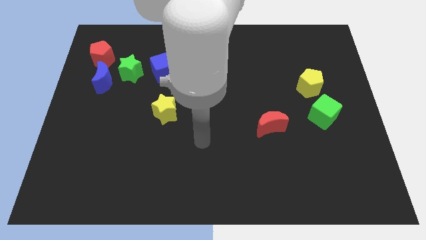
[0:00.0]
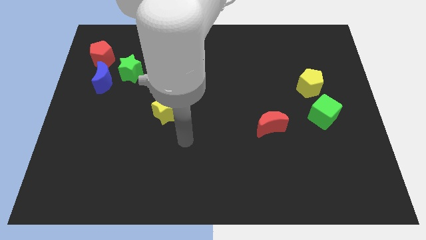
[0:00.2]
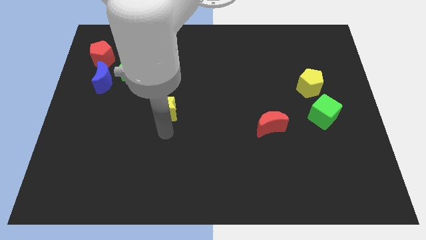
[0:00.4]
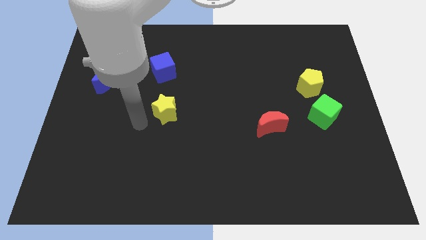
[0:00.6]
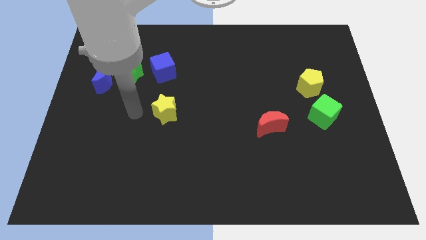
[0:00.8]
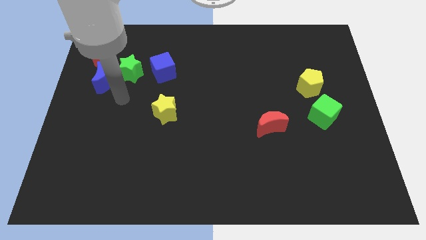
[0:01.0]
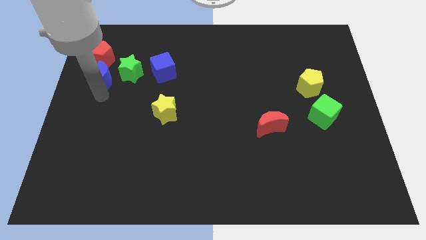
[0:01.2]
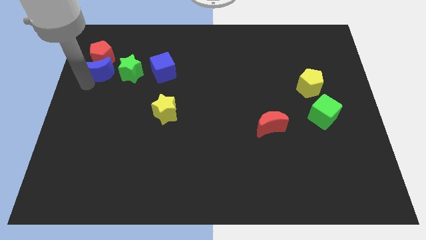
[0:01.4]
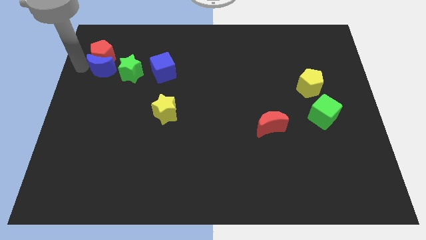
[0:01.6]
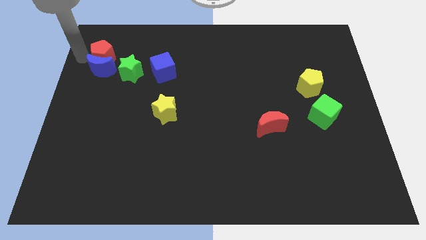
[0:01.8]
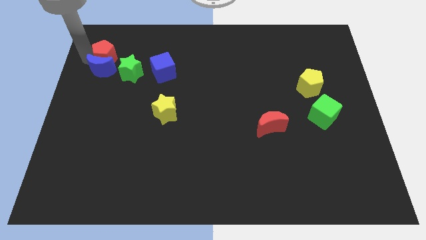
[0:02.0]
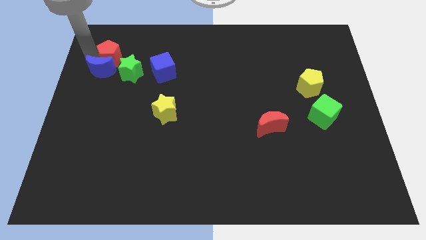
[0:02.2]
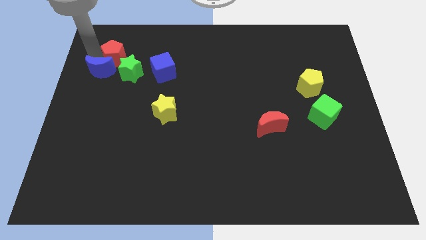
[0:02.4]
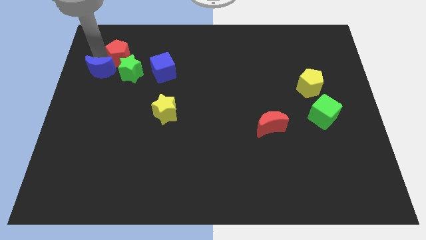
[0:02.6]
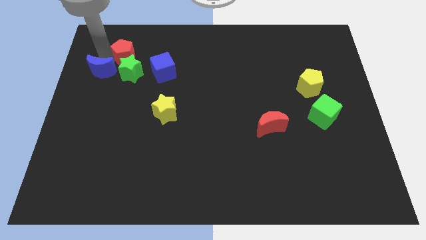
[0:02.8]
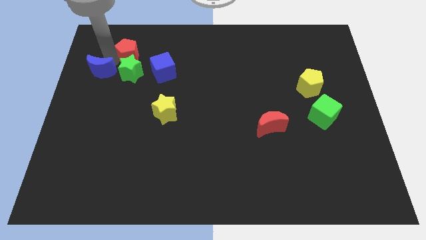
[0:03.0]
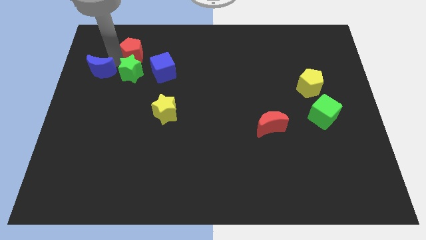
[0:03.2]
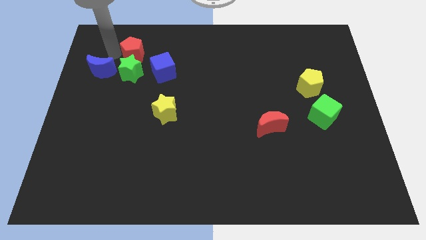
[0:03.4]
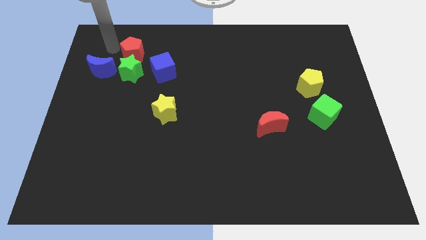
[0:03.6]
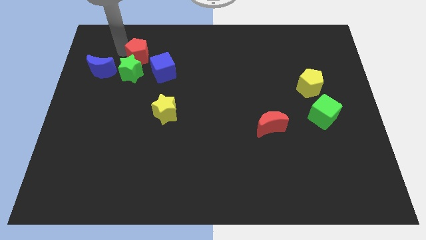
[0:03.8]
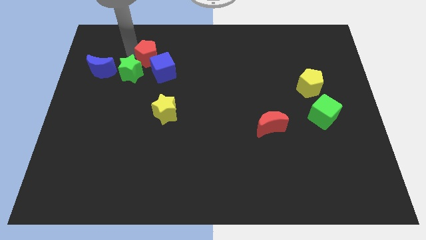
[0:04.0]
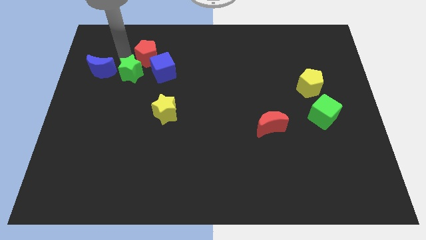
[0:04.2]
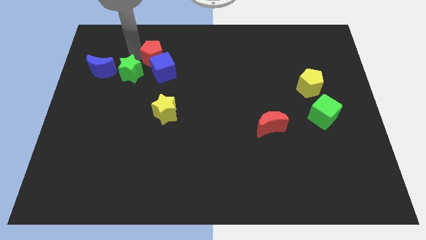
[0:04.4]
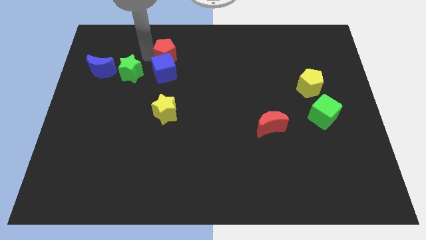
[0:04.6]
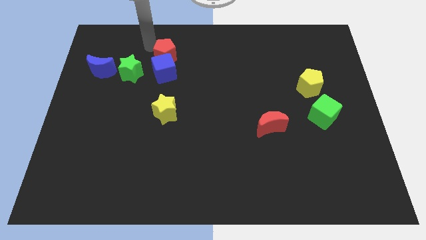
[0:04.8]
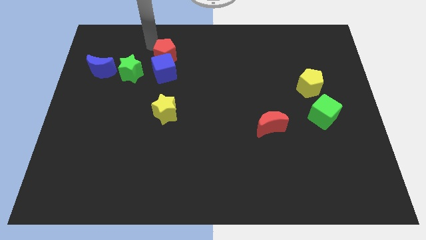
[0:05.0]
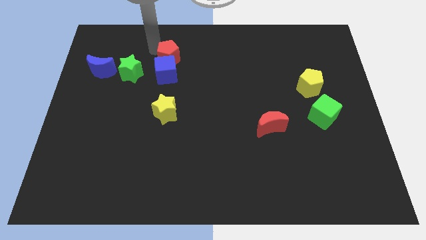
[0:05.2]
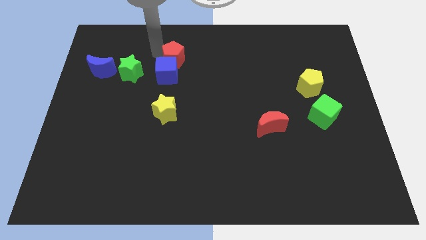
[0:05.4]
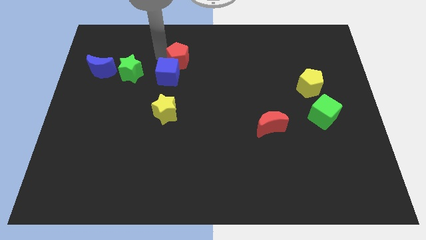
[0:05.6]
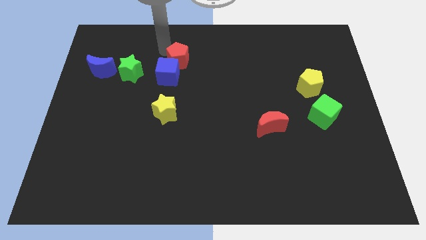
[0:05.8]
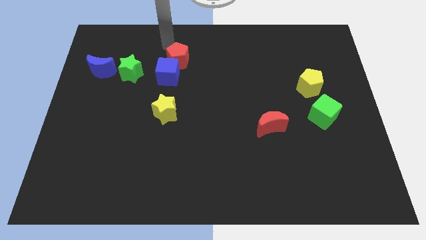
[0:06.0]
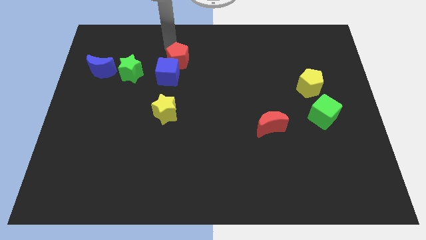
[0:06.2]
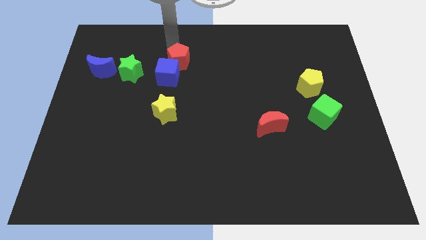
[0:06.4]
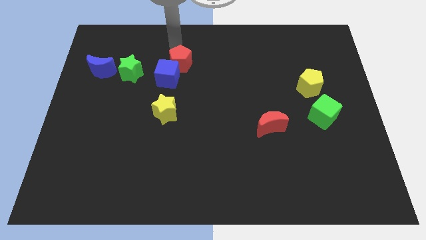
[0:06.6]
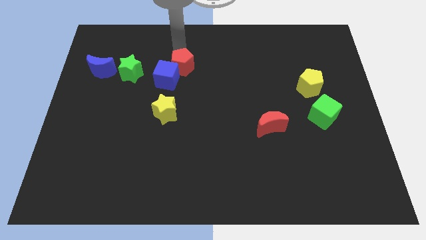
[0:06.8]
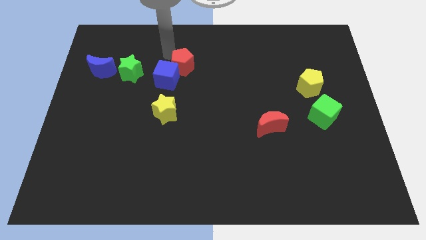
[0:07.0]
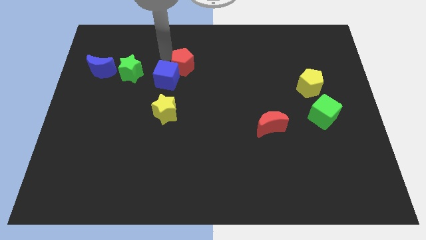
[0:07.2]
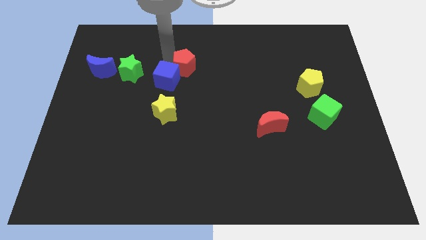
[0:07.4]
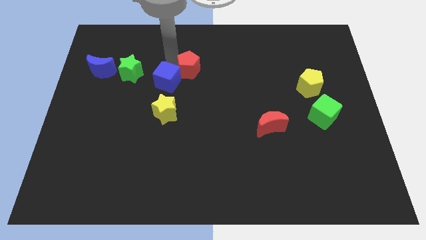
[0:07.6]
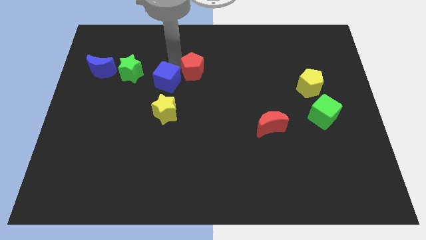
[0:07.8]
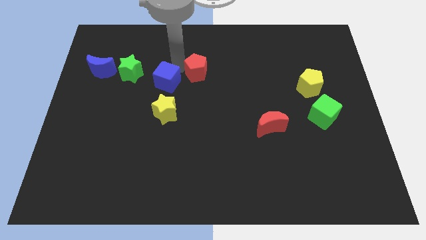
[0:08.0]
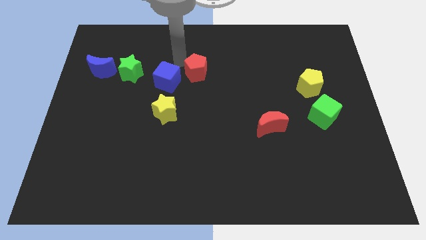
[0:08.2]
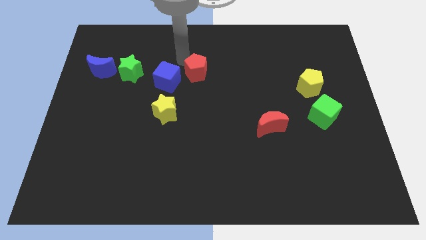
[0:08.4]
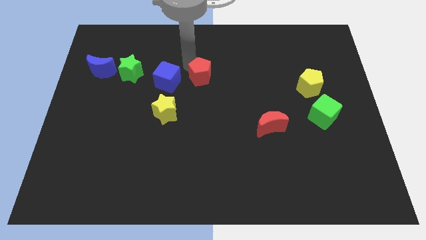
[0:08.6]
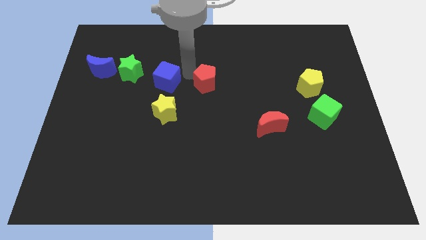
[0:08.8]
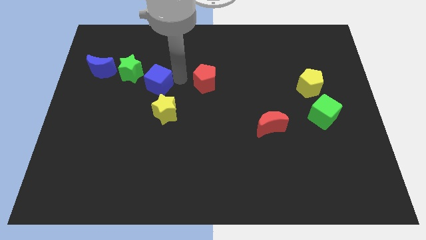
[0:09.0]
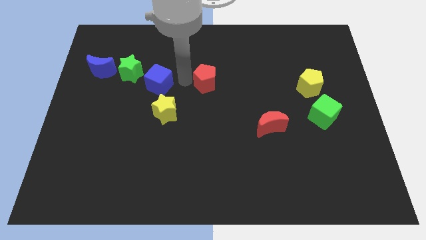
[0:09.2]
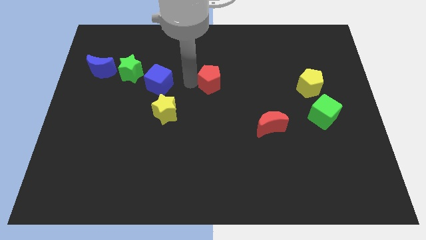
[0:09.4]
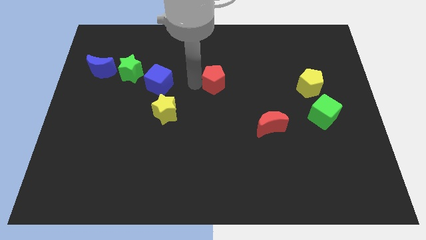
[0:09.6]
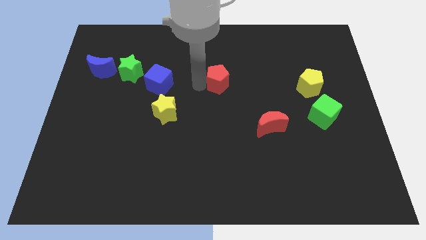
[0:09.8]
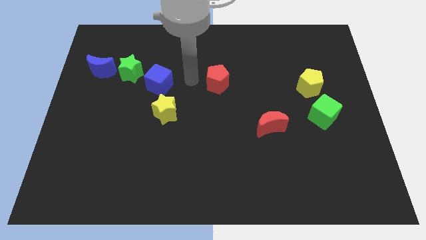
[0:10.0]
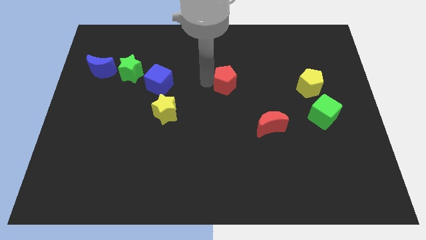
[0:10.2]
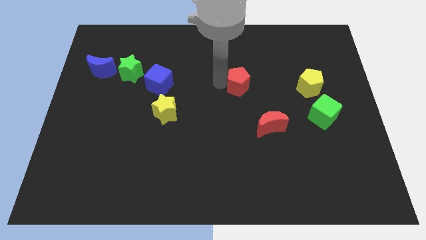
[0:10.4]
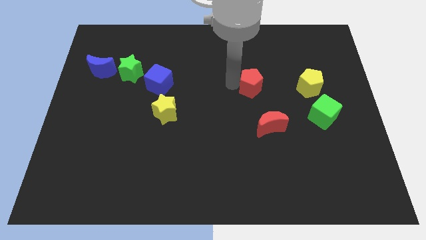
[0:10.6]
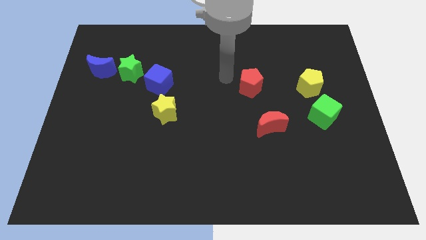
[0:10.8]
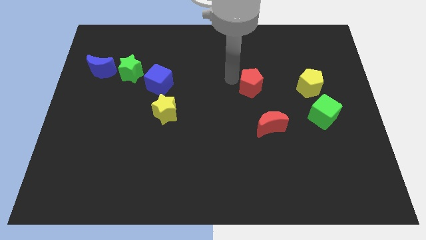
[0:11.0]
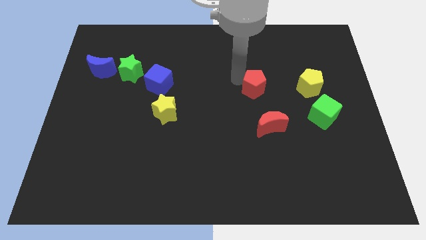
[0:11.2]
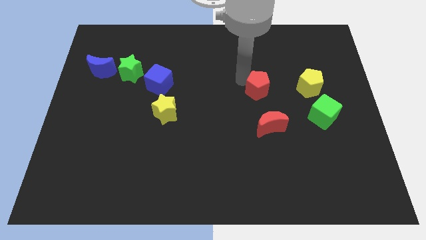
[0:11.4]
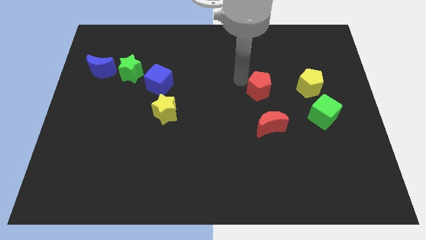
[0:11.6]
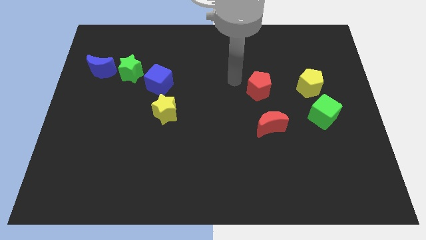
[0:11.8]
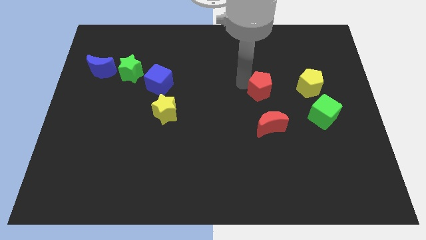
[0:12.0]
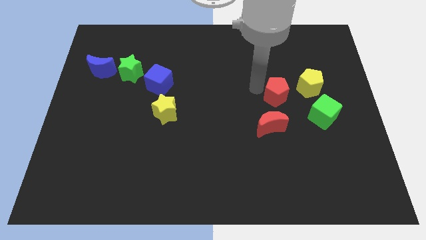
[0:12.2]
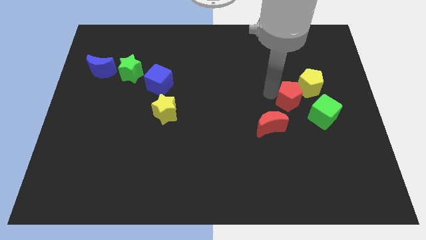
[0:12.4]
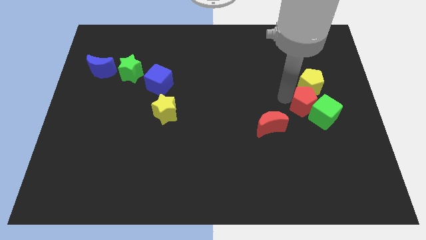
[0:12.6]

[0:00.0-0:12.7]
put the red pentagon towards the green cube

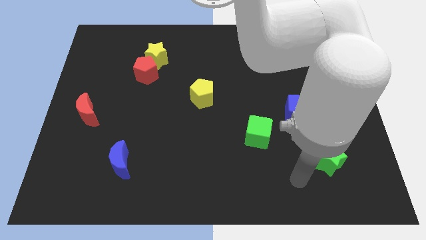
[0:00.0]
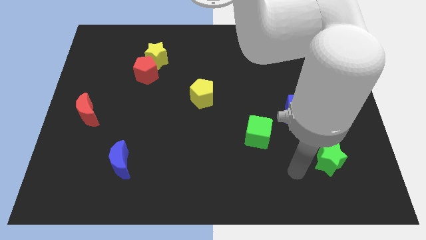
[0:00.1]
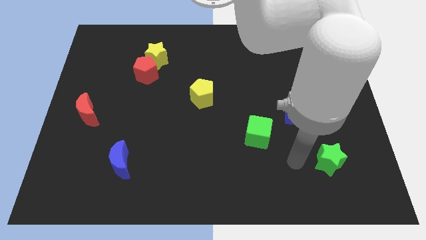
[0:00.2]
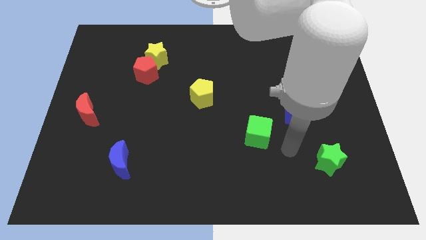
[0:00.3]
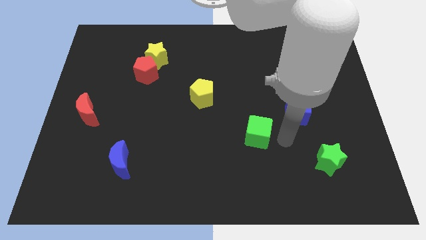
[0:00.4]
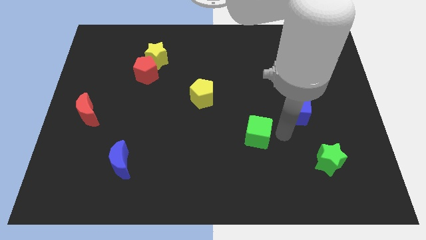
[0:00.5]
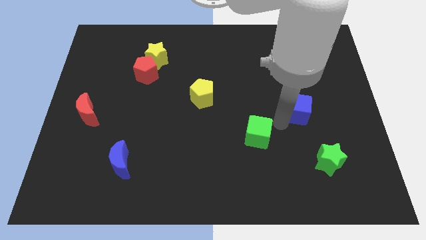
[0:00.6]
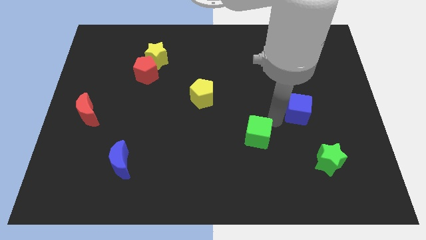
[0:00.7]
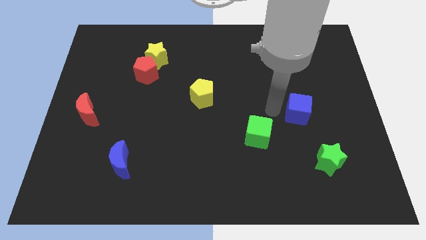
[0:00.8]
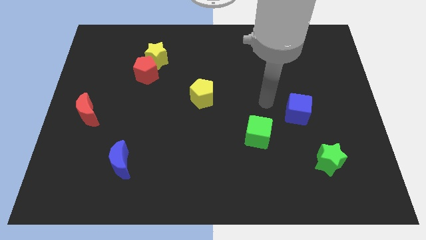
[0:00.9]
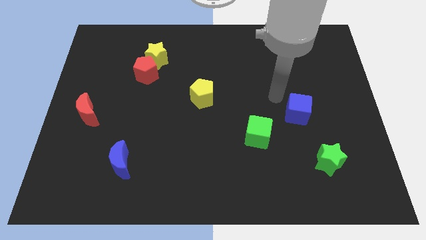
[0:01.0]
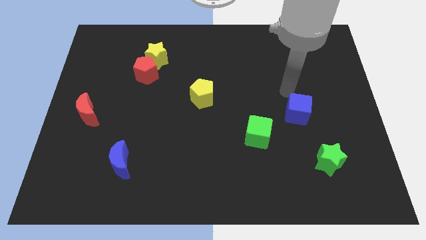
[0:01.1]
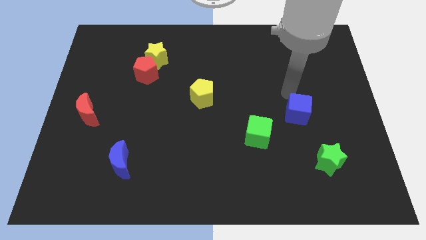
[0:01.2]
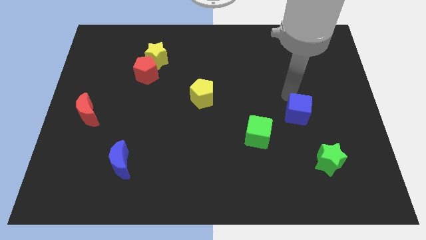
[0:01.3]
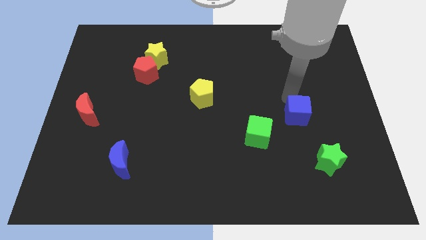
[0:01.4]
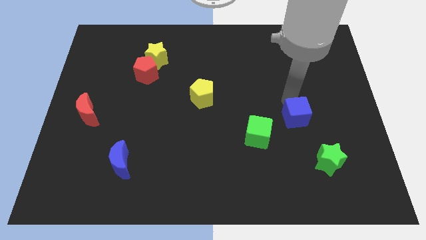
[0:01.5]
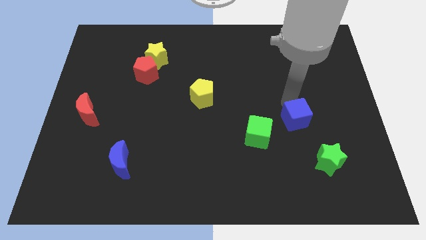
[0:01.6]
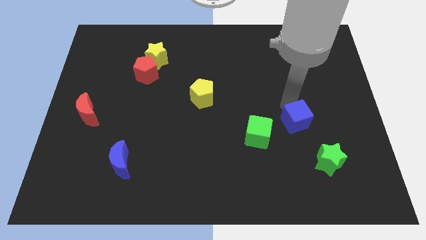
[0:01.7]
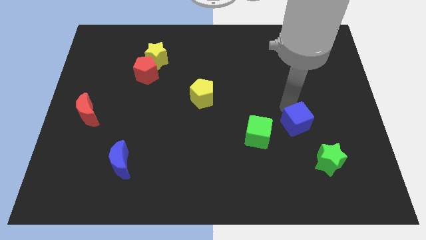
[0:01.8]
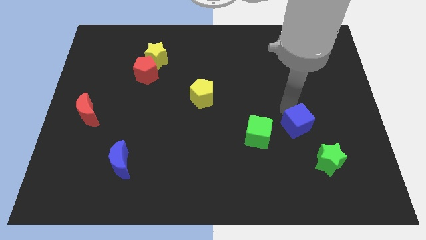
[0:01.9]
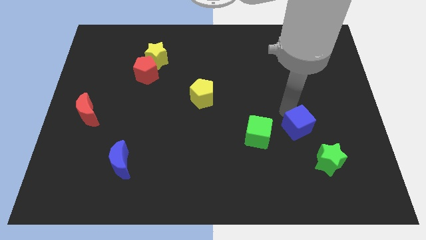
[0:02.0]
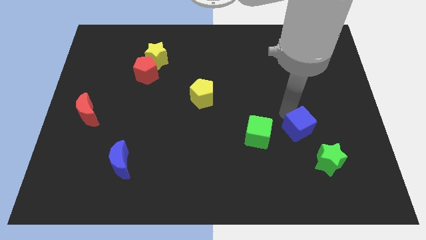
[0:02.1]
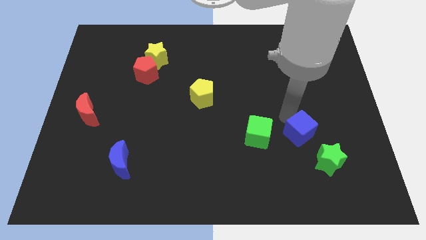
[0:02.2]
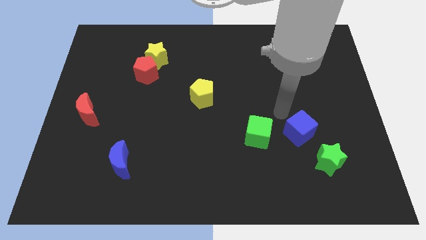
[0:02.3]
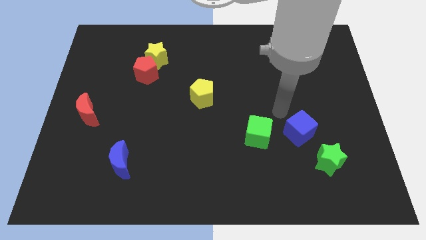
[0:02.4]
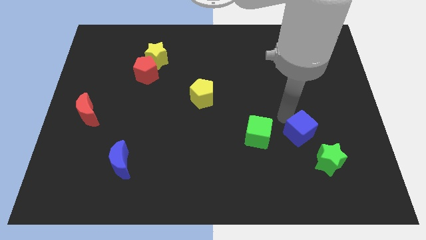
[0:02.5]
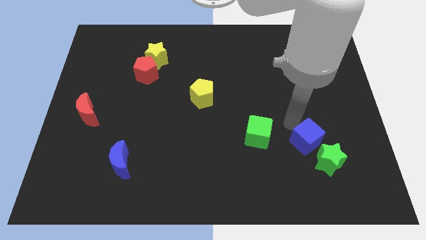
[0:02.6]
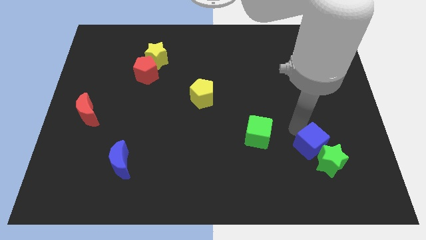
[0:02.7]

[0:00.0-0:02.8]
move the blue cube to the green star
